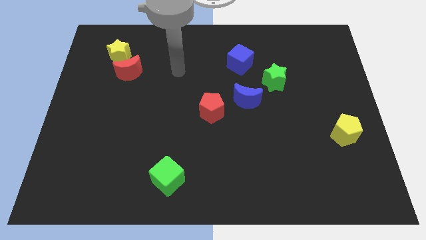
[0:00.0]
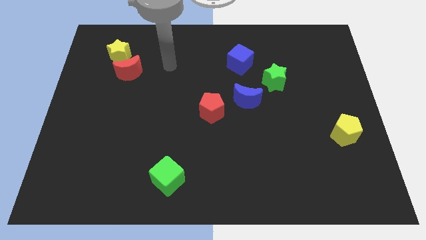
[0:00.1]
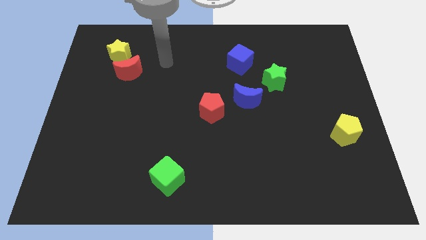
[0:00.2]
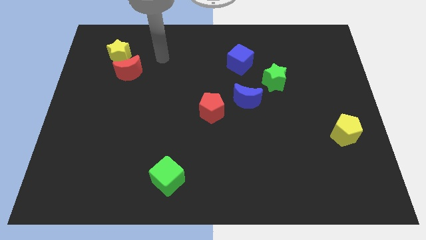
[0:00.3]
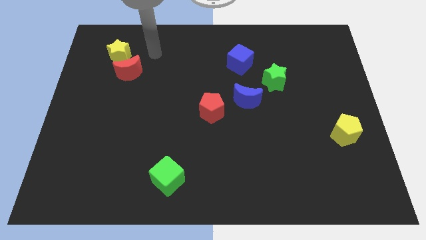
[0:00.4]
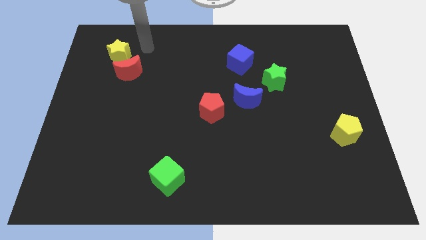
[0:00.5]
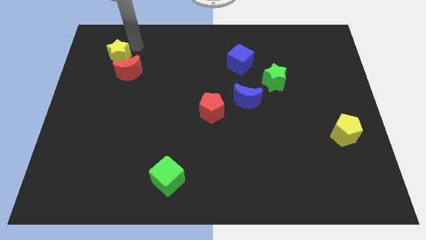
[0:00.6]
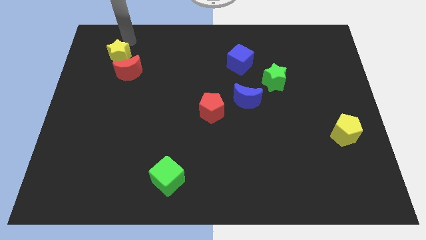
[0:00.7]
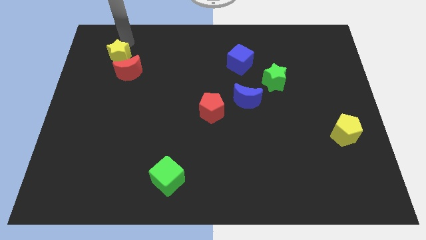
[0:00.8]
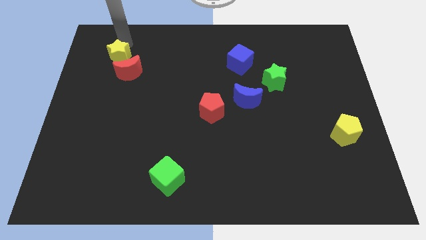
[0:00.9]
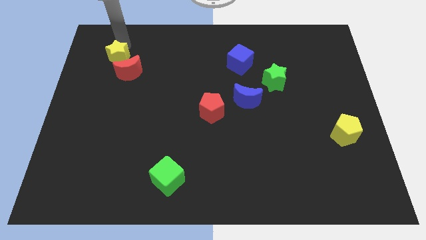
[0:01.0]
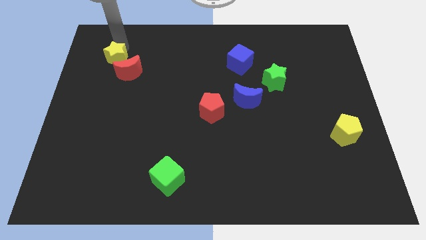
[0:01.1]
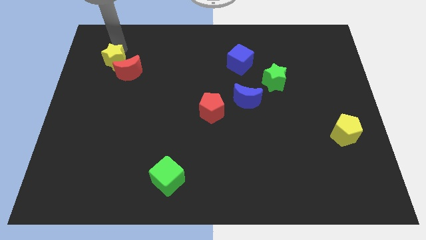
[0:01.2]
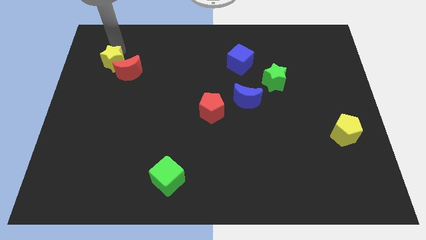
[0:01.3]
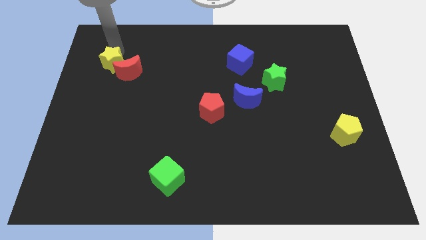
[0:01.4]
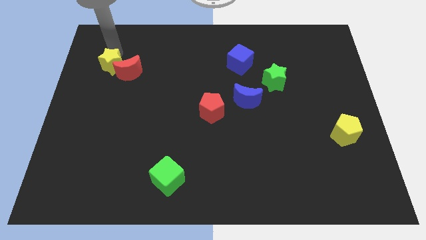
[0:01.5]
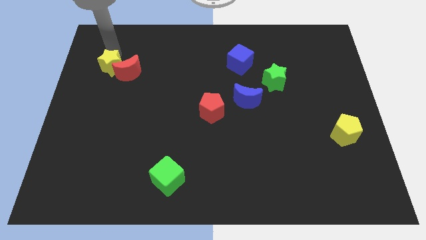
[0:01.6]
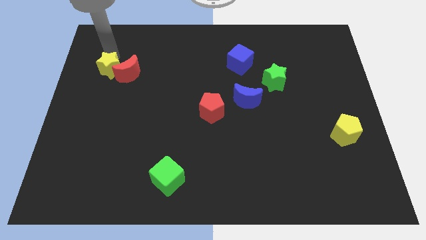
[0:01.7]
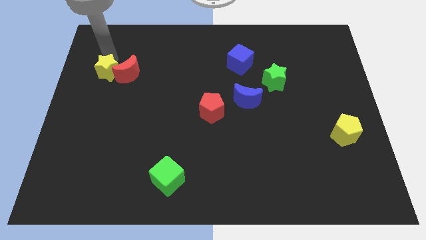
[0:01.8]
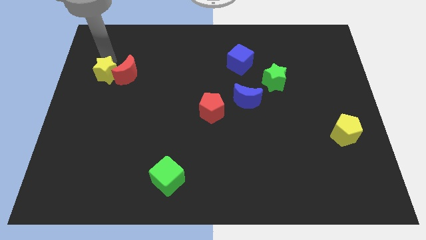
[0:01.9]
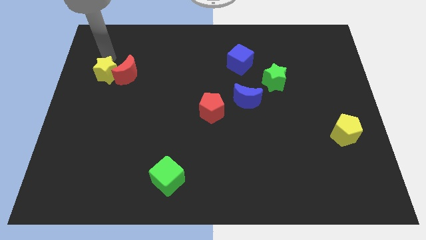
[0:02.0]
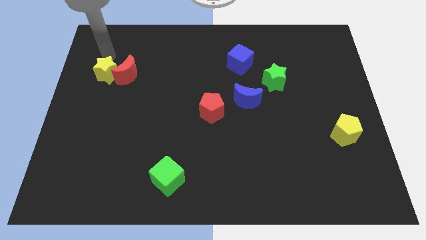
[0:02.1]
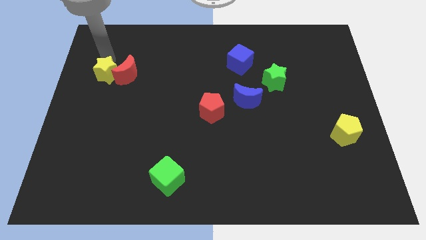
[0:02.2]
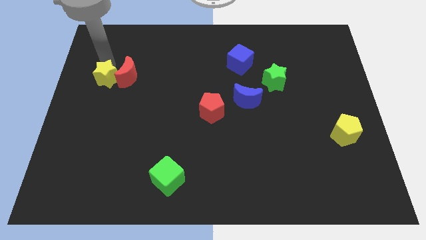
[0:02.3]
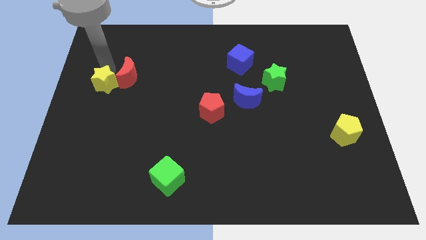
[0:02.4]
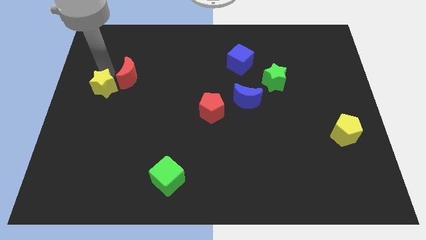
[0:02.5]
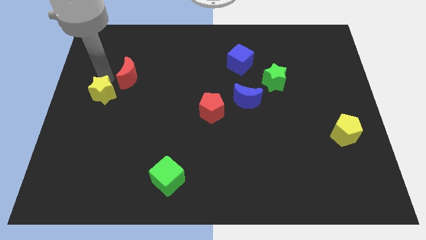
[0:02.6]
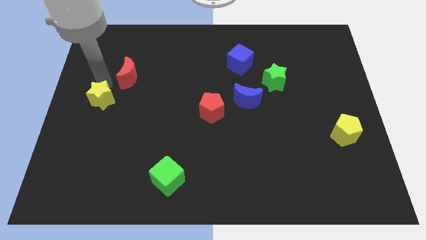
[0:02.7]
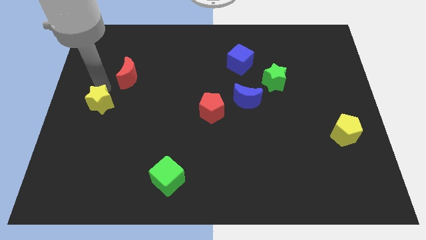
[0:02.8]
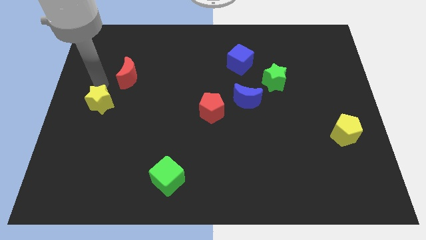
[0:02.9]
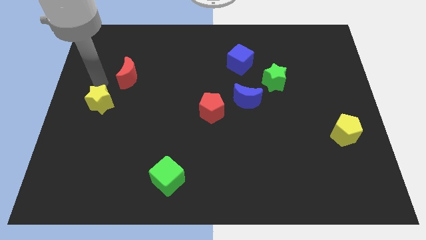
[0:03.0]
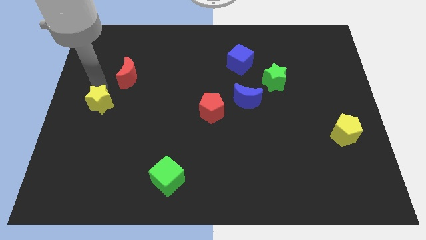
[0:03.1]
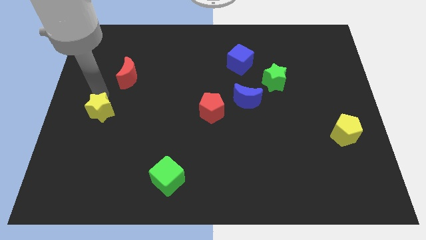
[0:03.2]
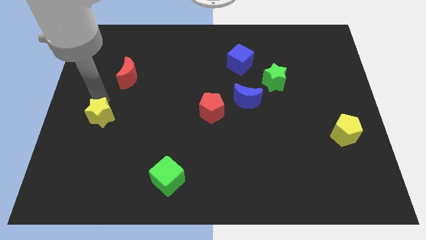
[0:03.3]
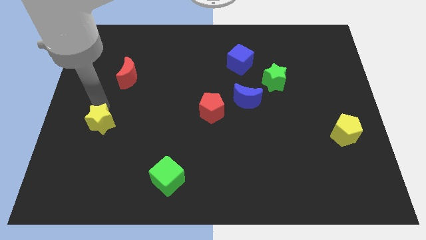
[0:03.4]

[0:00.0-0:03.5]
push the yellow star downwards

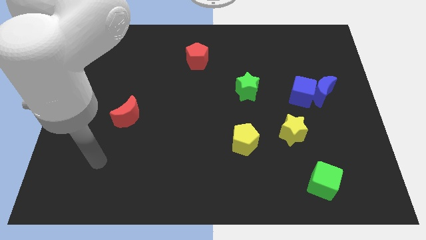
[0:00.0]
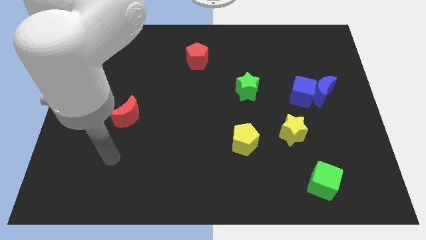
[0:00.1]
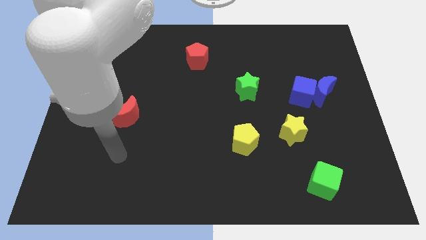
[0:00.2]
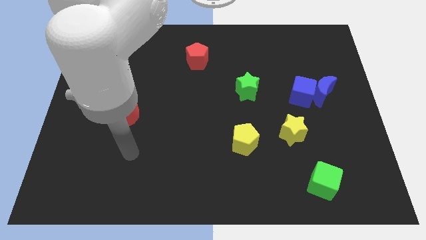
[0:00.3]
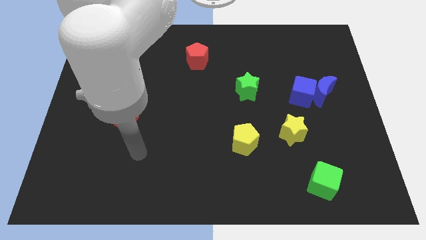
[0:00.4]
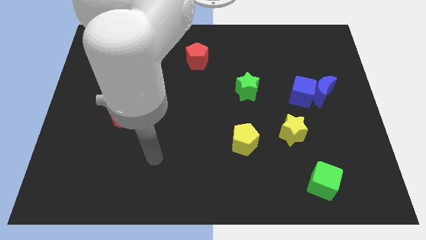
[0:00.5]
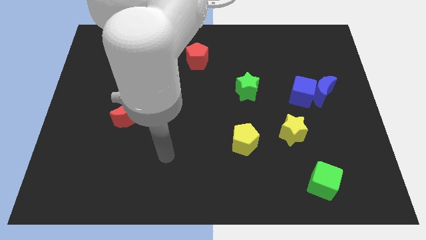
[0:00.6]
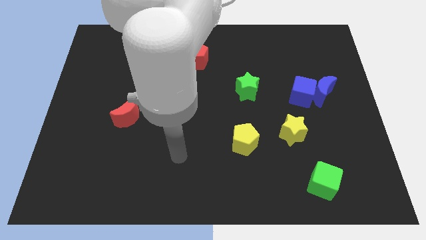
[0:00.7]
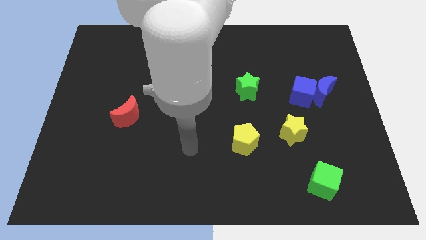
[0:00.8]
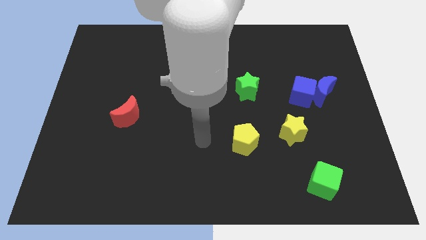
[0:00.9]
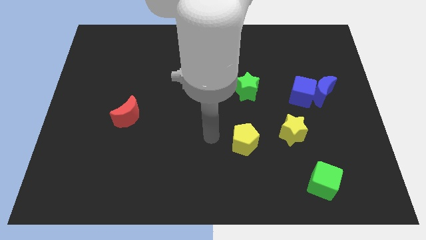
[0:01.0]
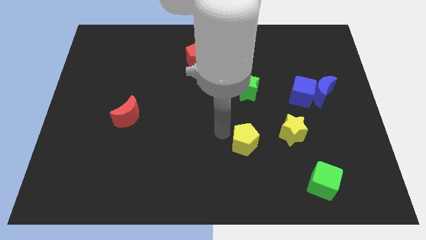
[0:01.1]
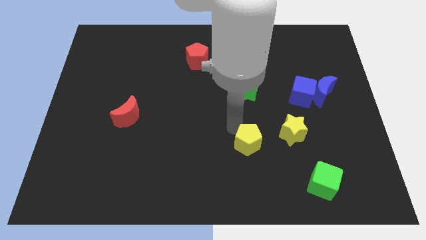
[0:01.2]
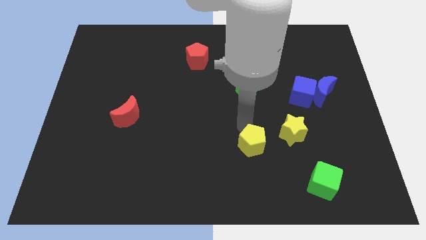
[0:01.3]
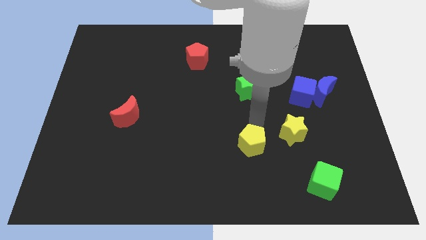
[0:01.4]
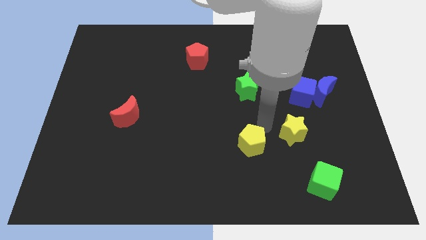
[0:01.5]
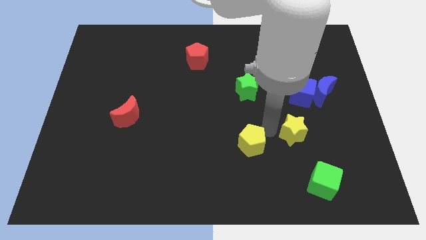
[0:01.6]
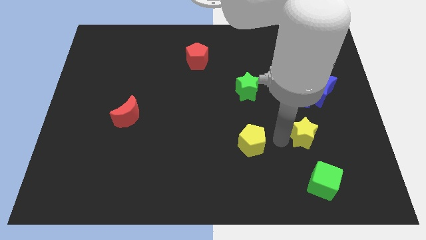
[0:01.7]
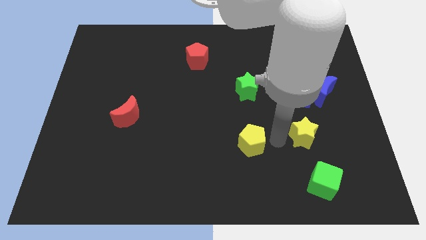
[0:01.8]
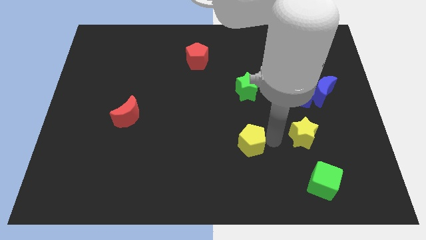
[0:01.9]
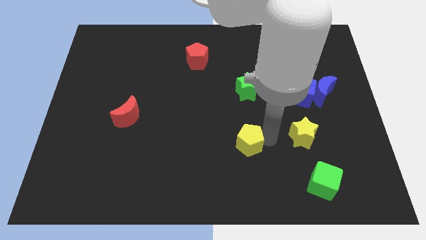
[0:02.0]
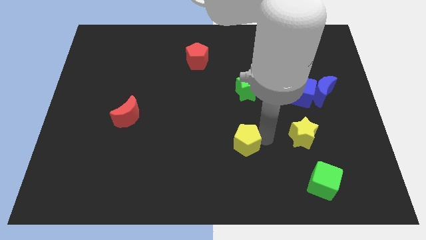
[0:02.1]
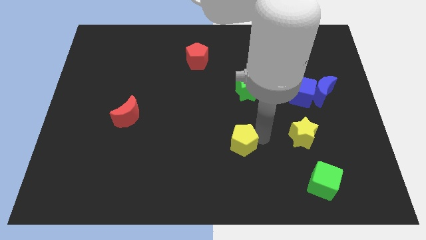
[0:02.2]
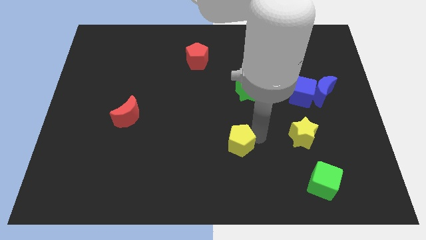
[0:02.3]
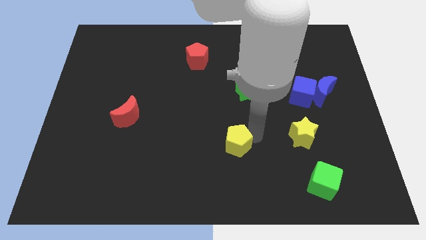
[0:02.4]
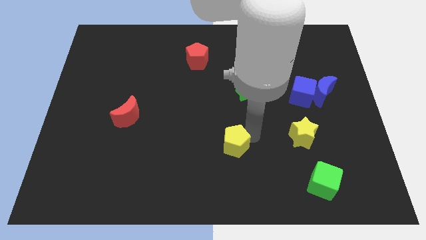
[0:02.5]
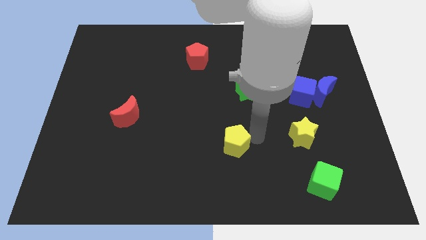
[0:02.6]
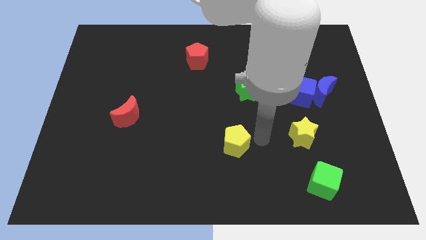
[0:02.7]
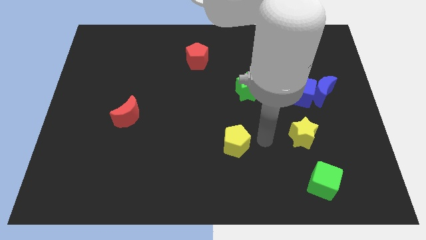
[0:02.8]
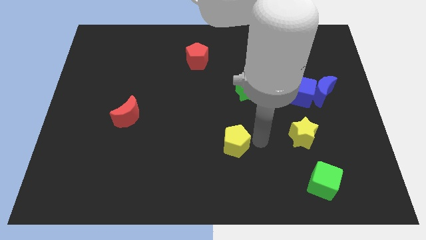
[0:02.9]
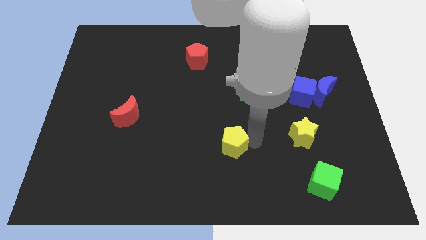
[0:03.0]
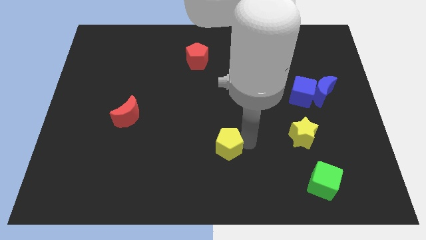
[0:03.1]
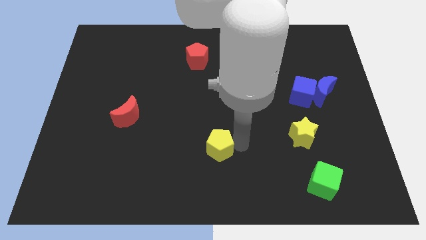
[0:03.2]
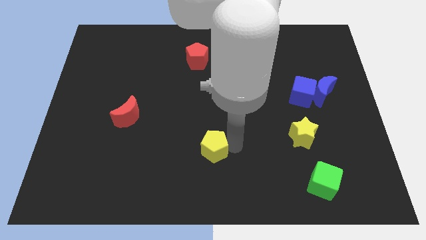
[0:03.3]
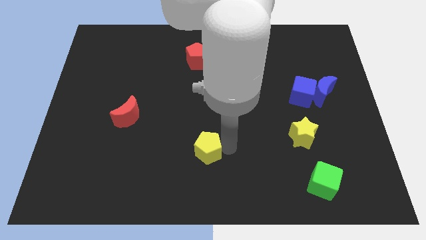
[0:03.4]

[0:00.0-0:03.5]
move the yellow pentagon left a little bit

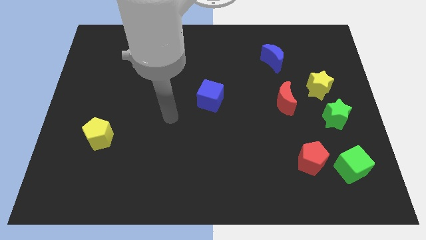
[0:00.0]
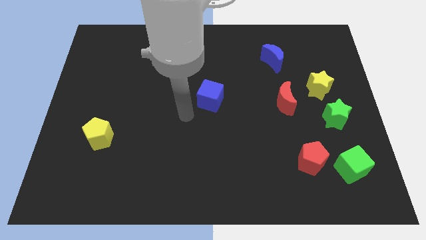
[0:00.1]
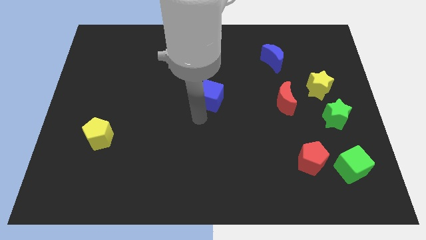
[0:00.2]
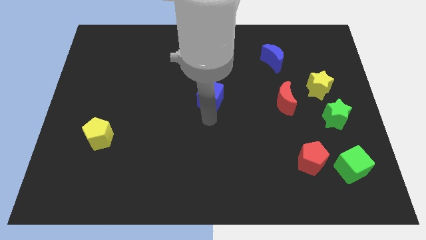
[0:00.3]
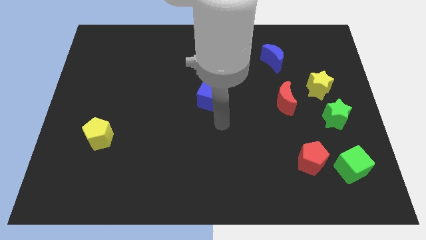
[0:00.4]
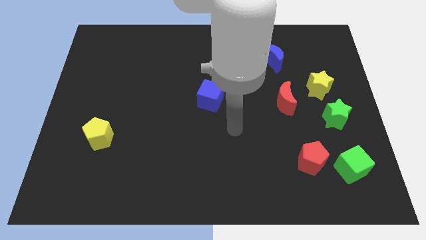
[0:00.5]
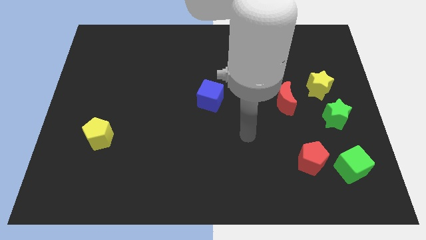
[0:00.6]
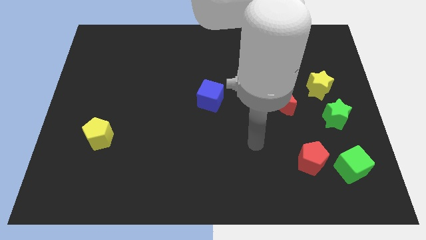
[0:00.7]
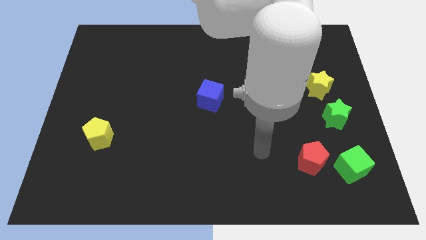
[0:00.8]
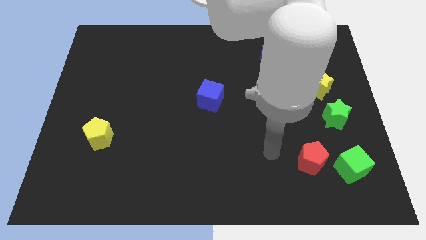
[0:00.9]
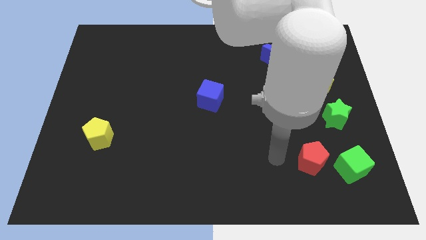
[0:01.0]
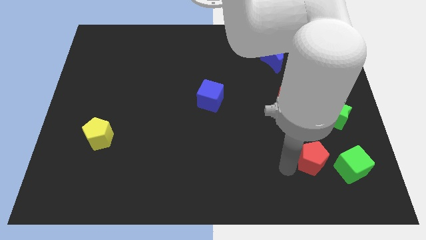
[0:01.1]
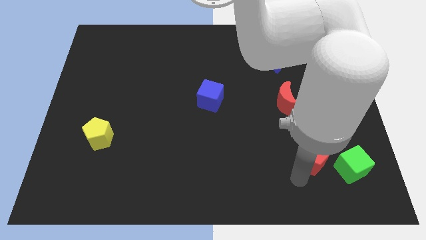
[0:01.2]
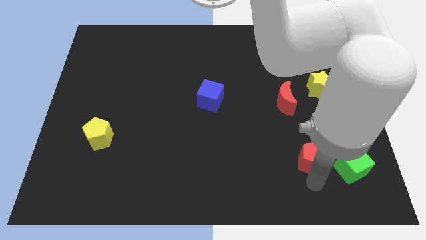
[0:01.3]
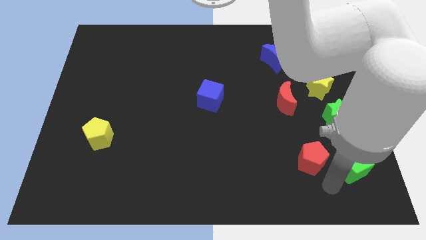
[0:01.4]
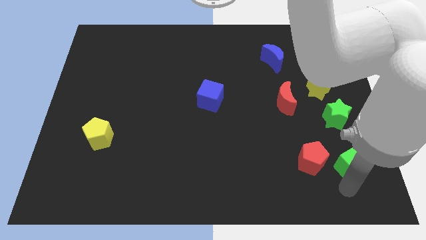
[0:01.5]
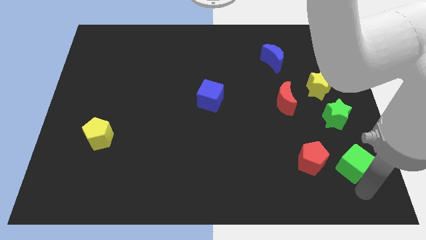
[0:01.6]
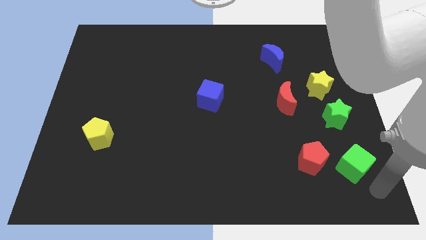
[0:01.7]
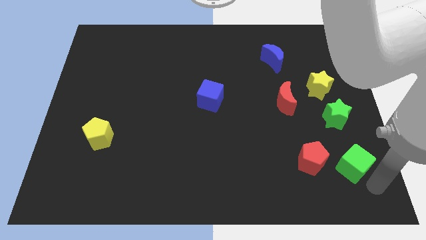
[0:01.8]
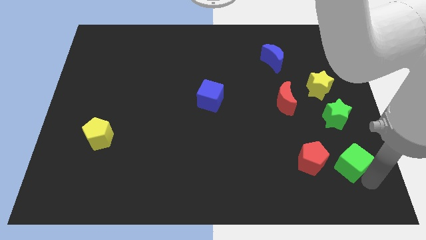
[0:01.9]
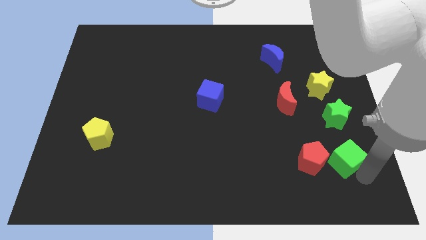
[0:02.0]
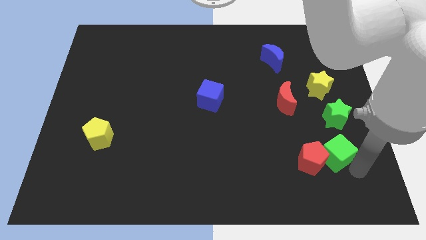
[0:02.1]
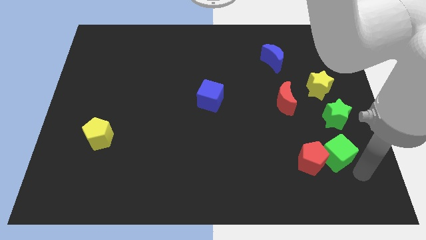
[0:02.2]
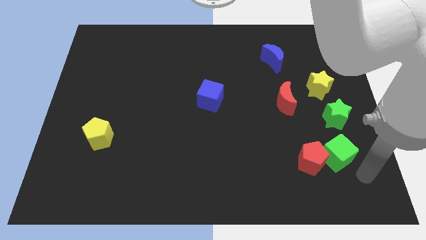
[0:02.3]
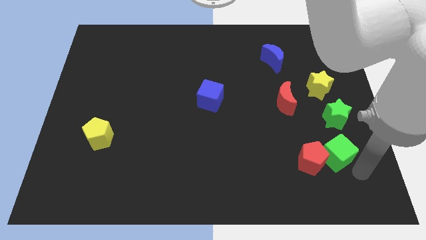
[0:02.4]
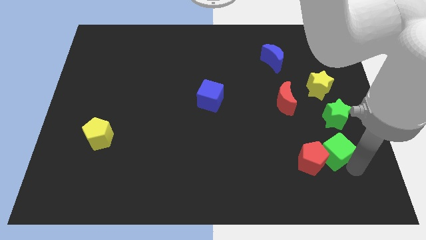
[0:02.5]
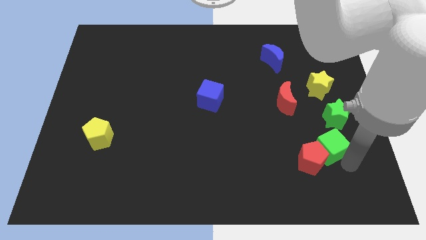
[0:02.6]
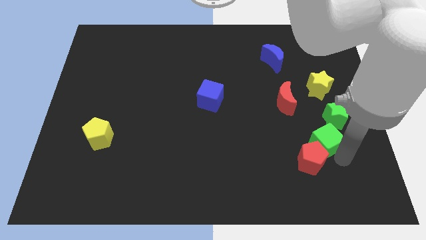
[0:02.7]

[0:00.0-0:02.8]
push the green cube somewhat up and then to the left
